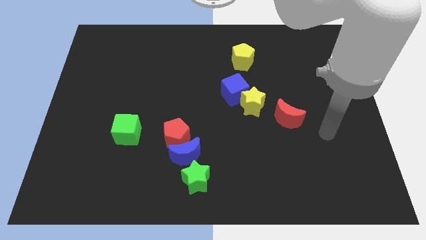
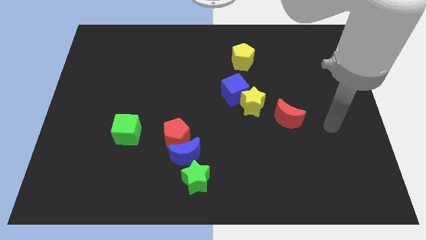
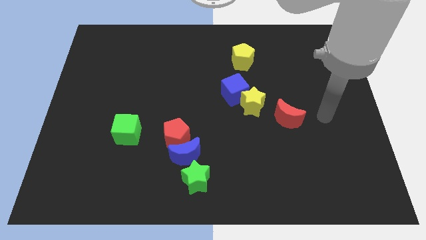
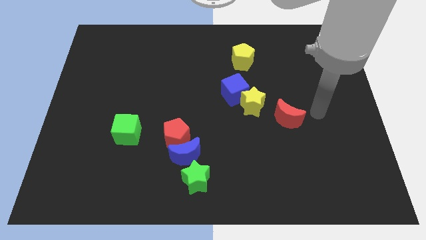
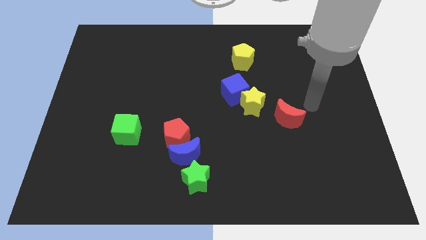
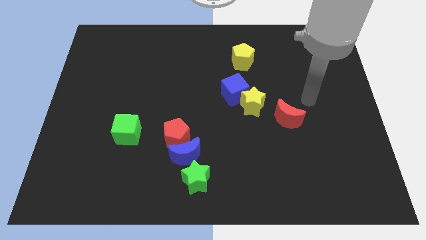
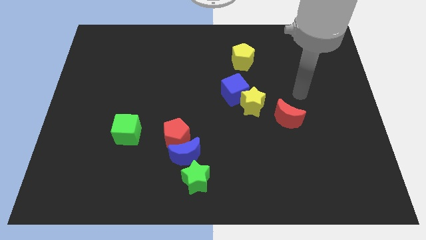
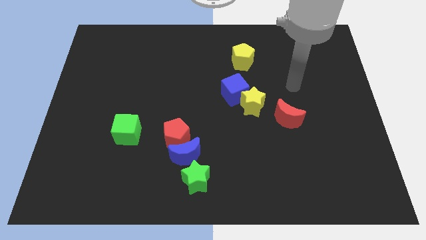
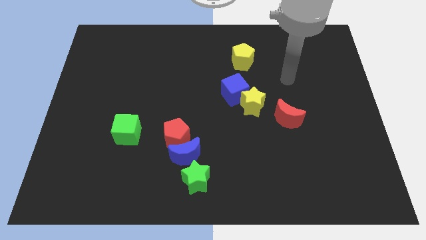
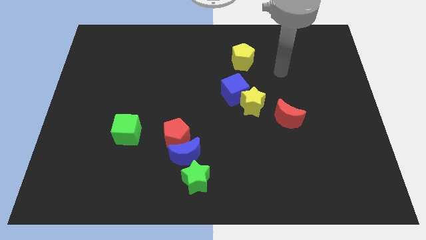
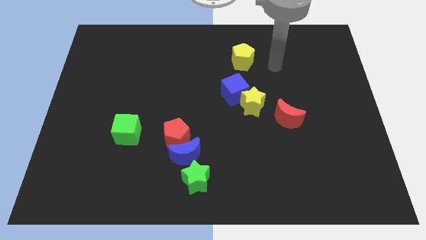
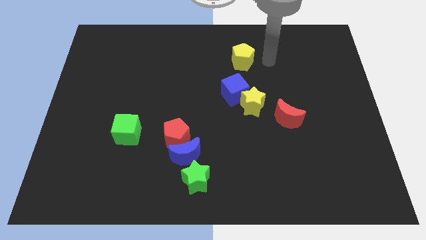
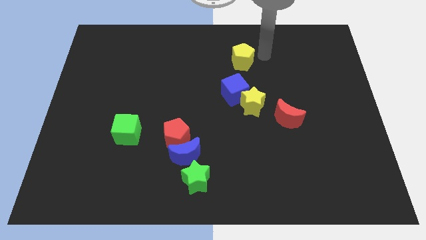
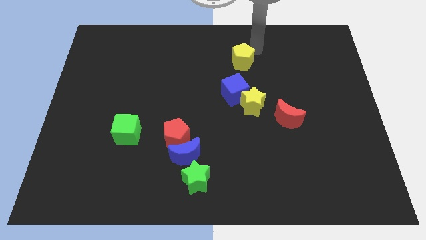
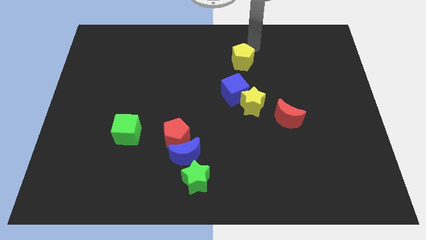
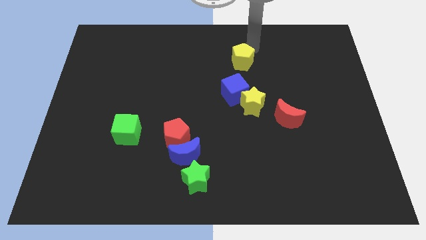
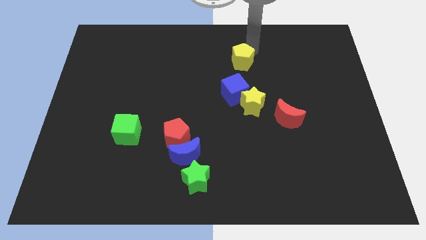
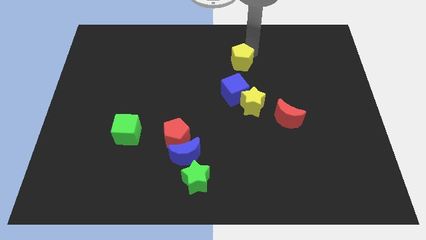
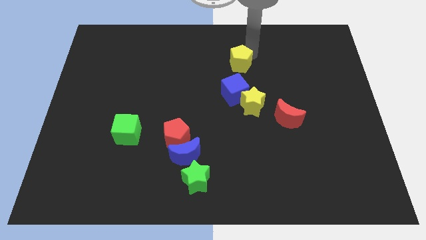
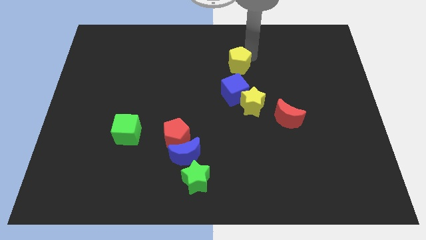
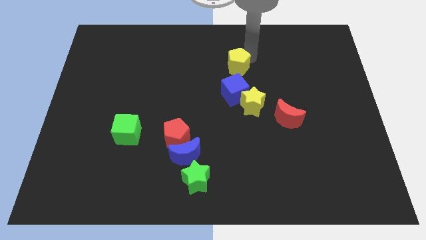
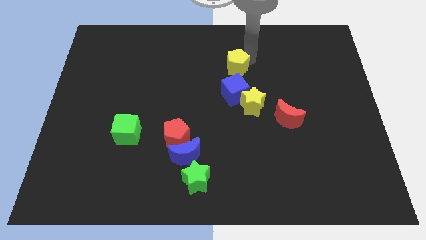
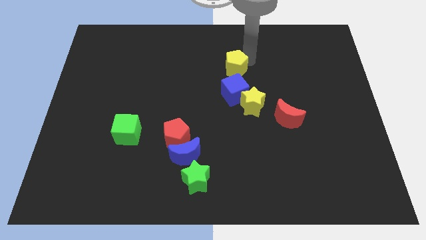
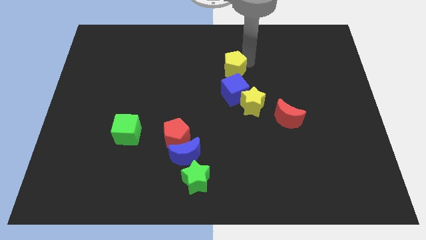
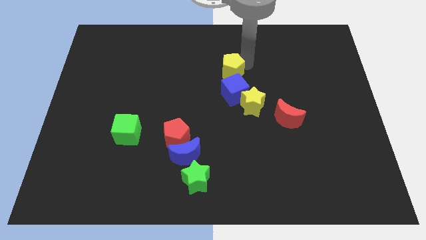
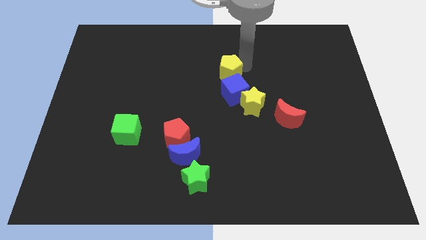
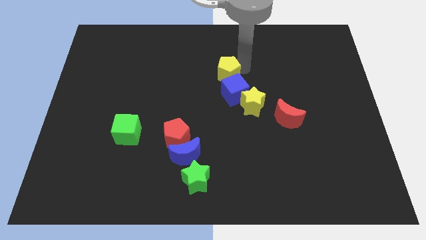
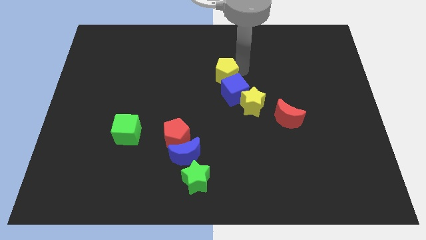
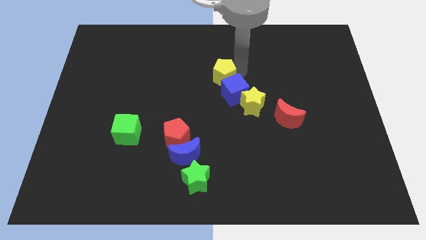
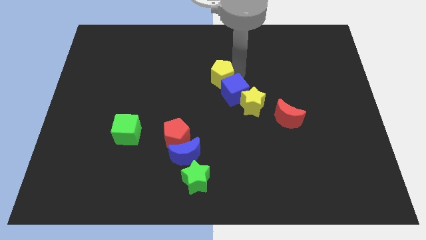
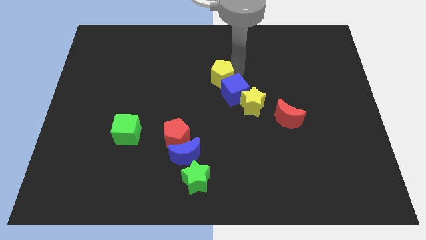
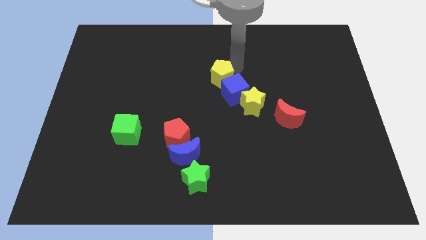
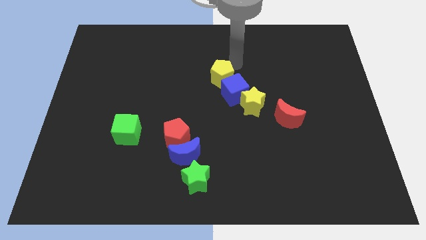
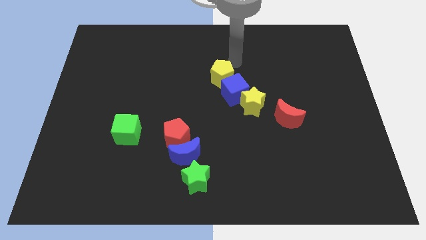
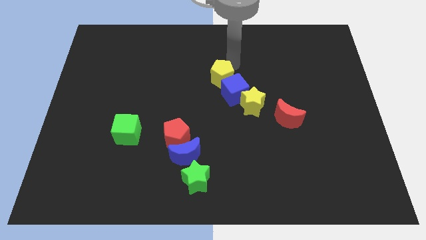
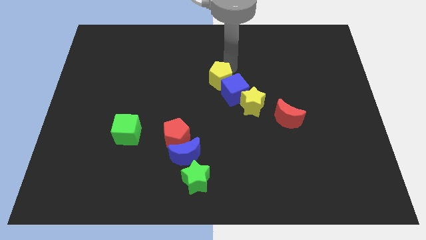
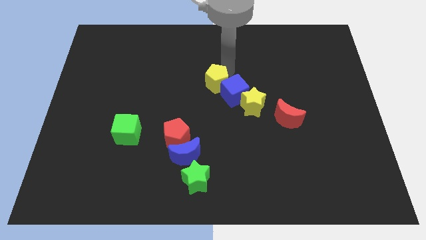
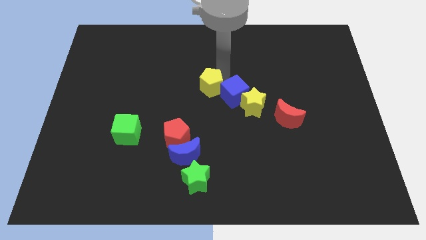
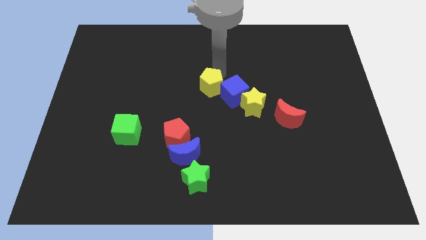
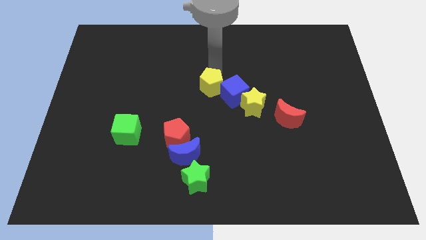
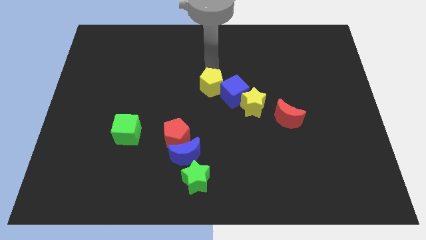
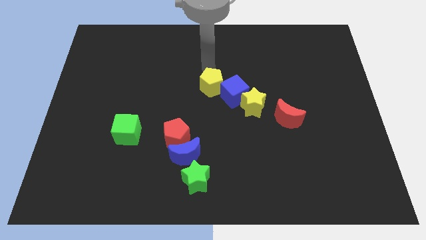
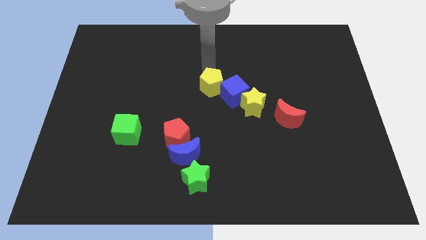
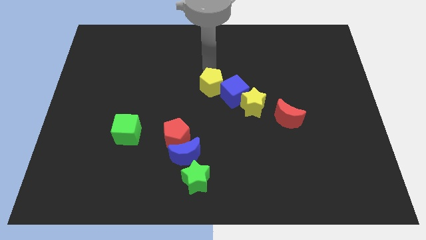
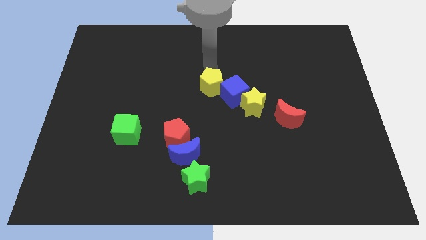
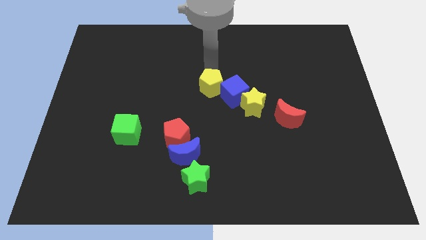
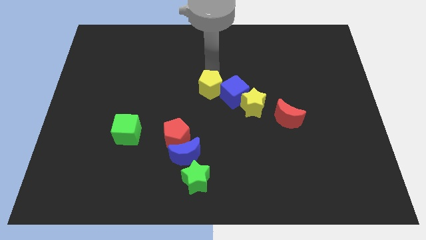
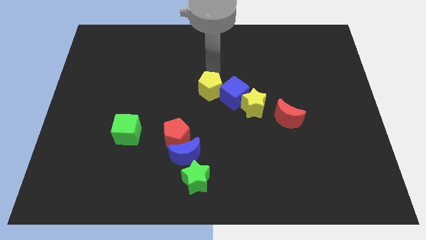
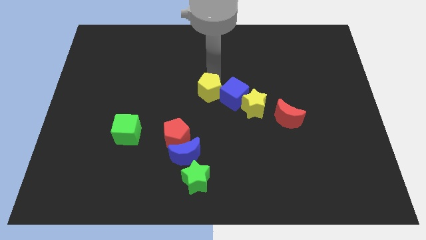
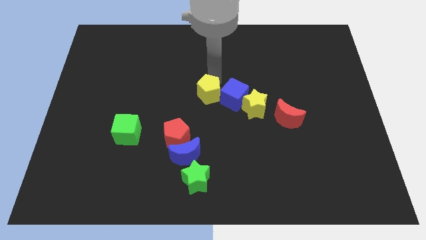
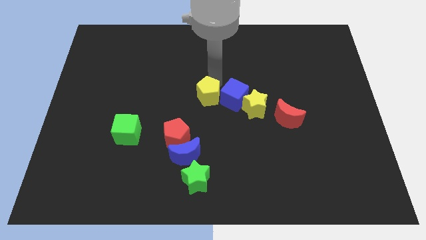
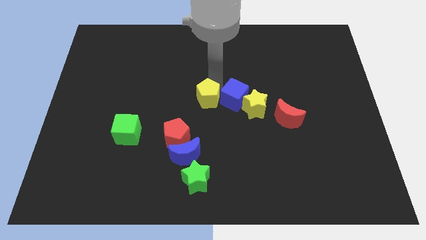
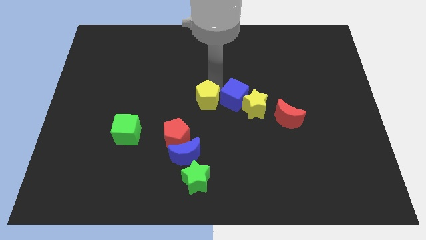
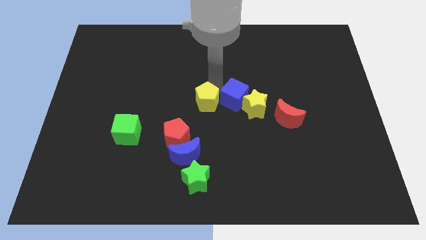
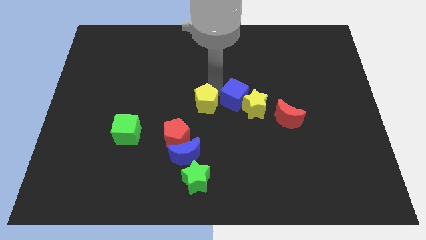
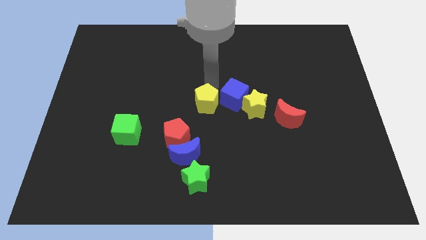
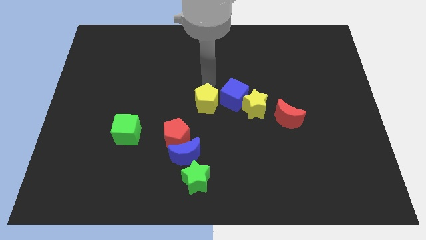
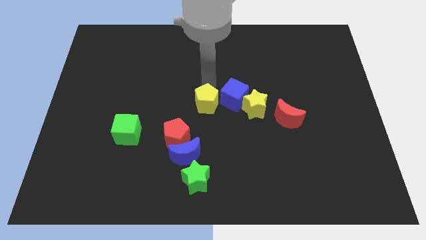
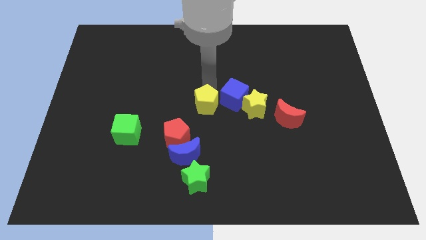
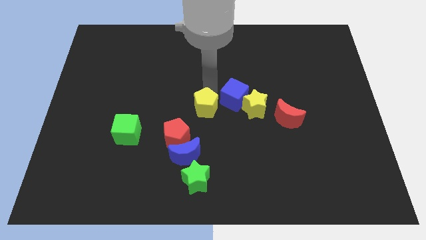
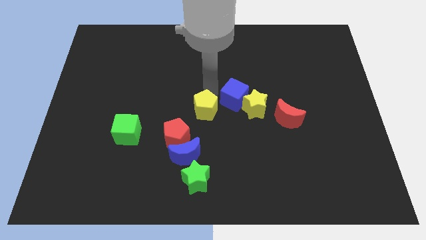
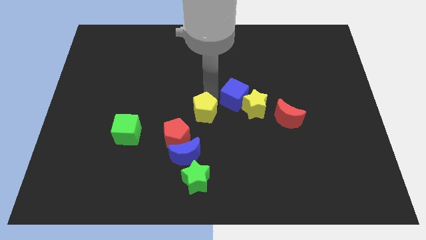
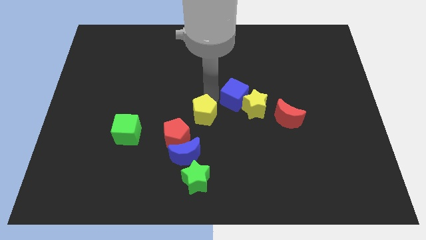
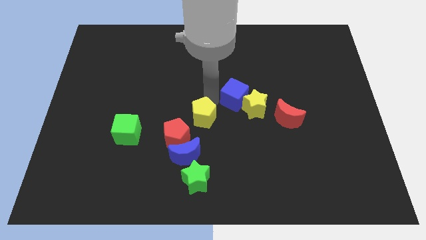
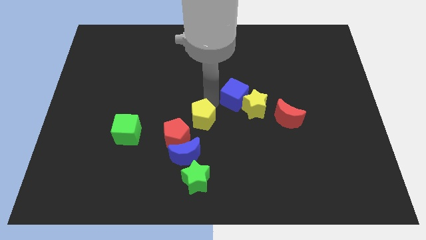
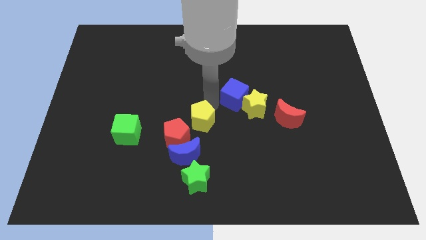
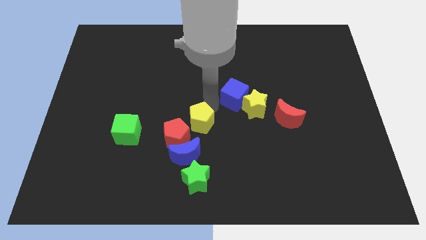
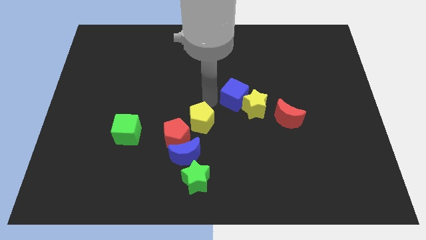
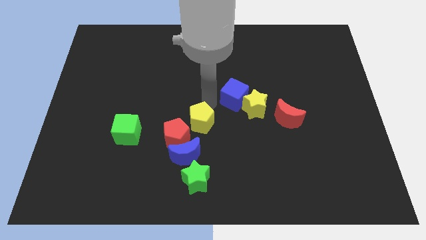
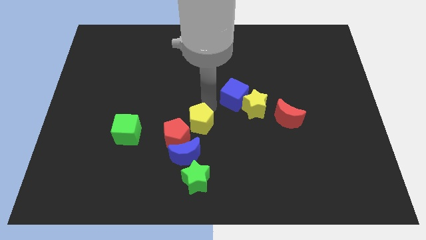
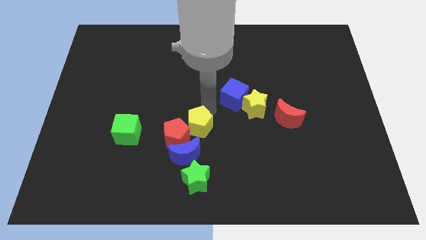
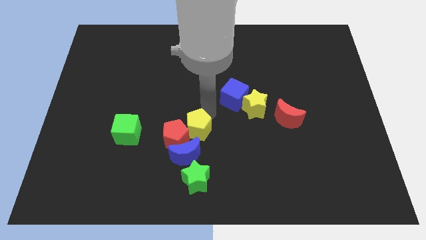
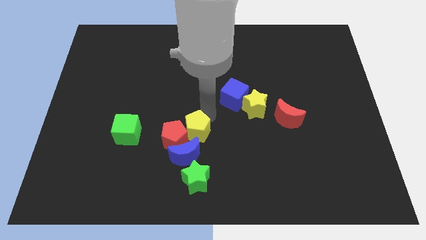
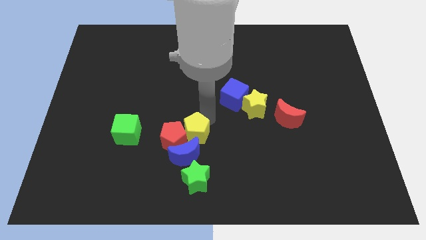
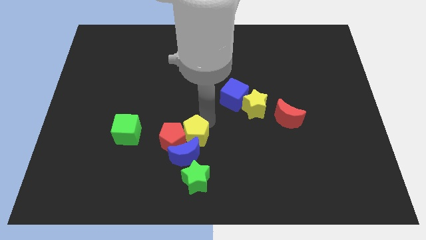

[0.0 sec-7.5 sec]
push the yellow pentagon next to the blue moon

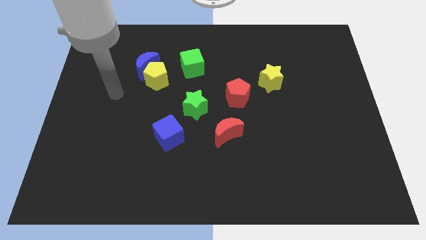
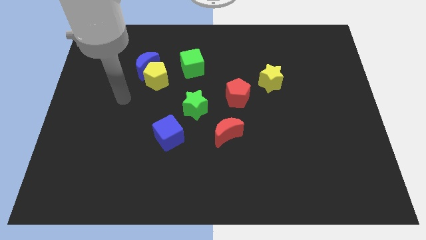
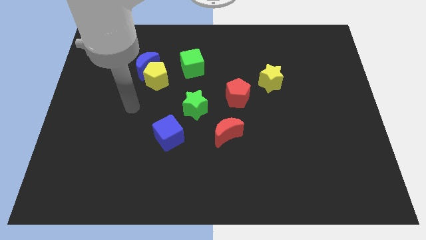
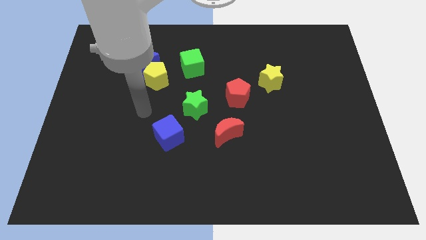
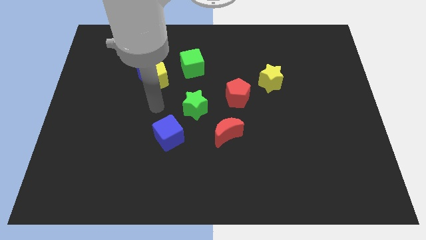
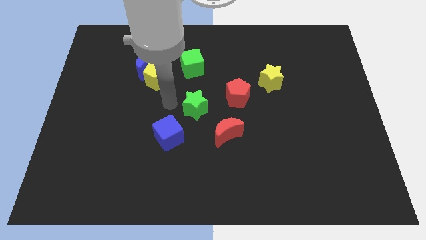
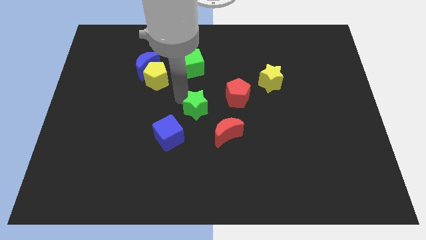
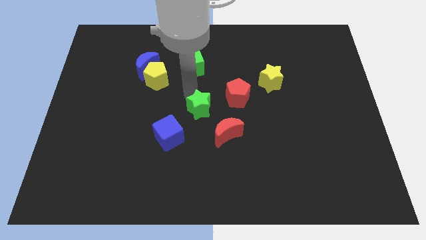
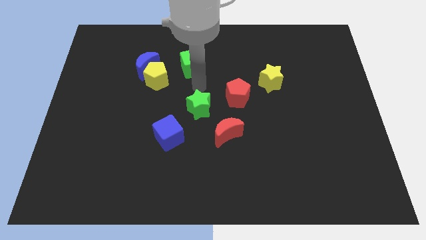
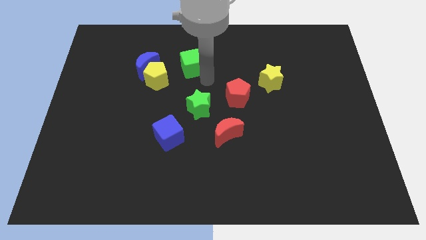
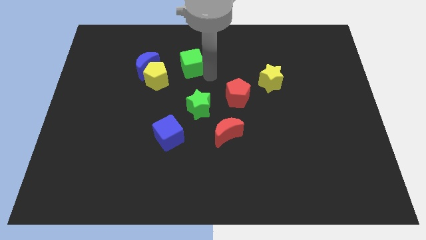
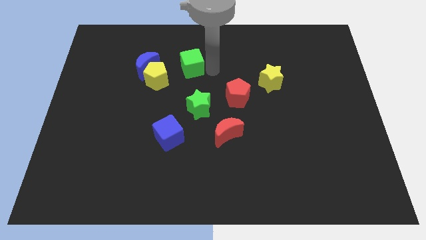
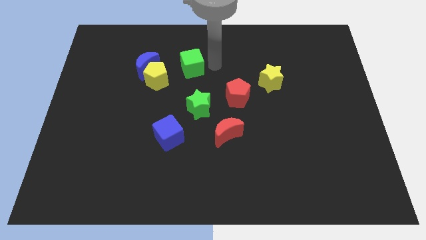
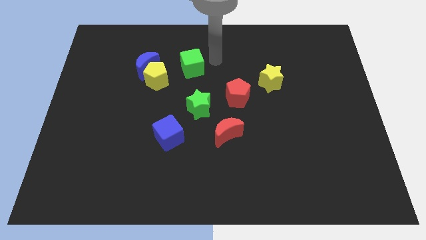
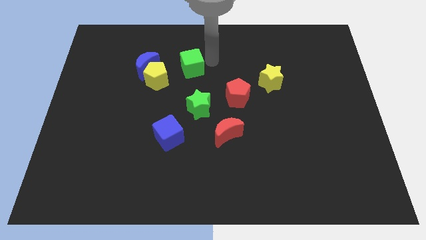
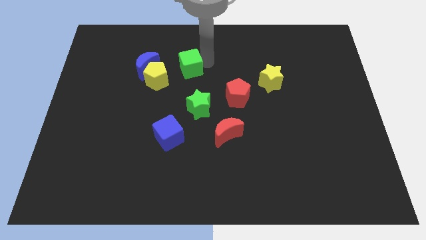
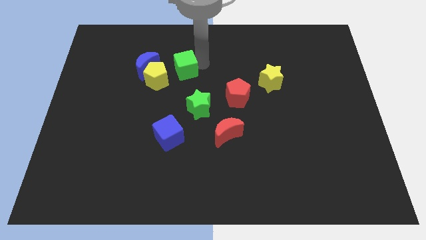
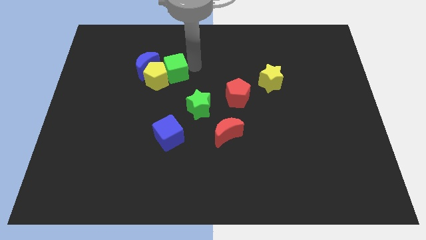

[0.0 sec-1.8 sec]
move the green cube next to the yellow pentagon
